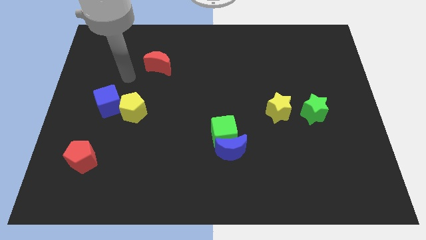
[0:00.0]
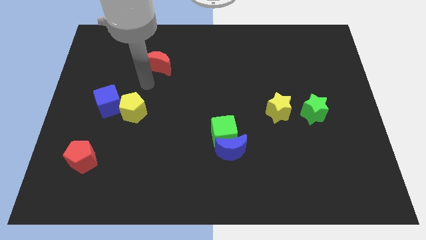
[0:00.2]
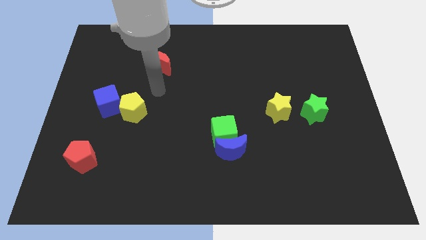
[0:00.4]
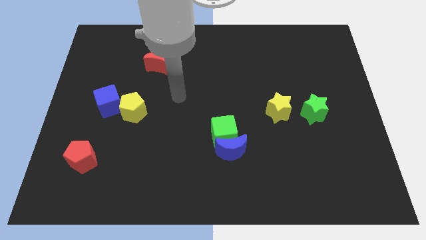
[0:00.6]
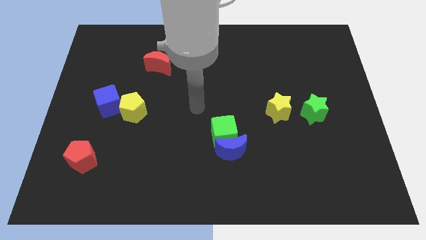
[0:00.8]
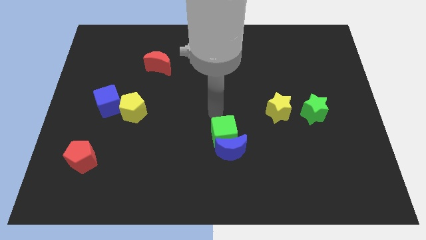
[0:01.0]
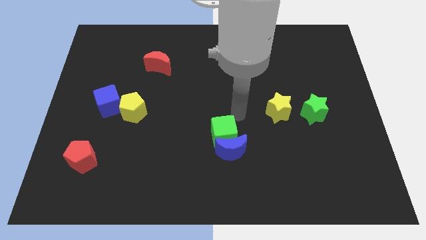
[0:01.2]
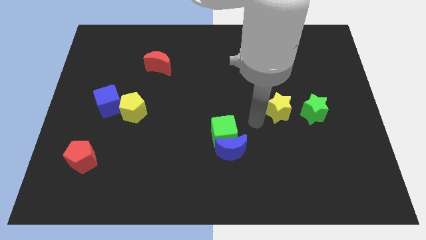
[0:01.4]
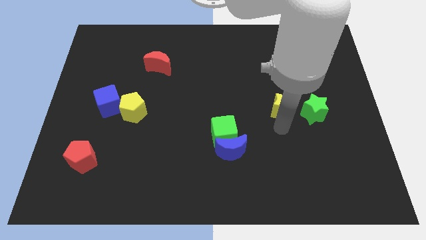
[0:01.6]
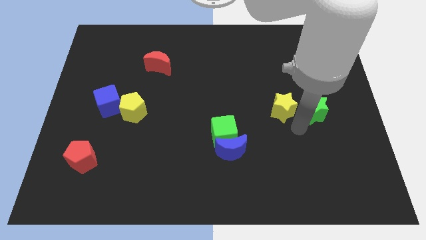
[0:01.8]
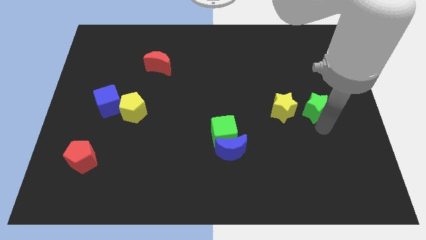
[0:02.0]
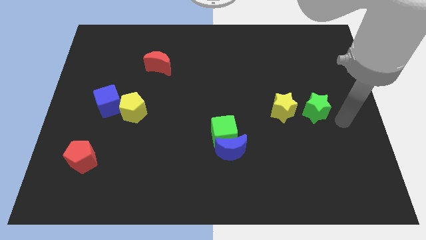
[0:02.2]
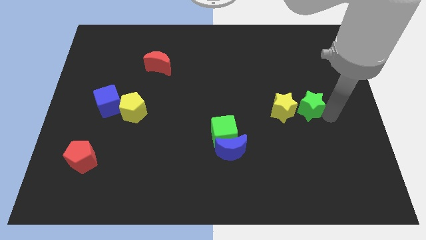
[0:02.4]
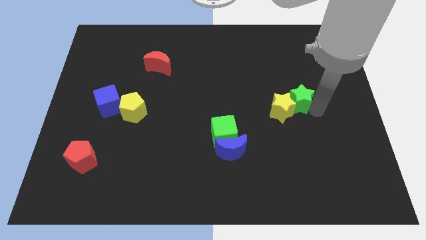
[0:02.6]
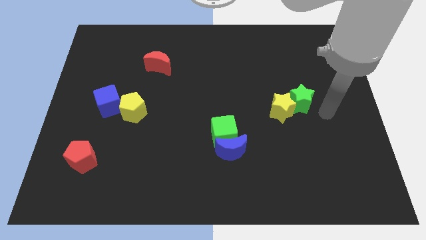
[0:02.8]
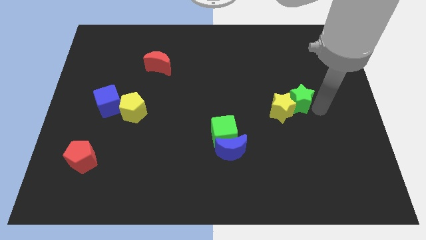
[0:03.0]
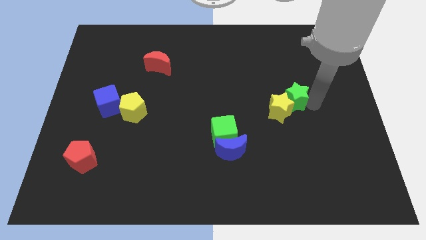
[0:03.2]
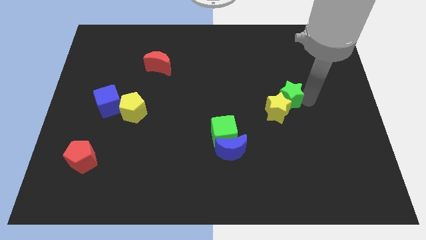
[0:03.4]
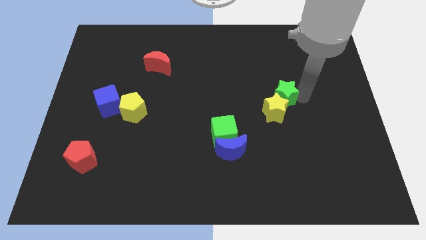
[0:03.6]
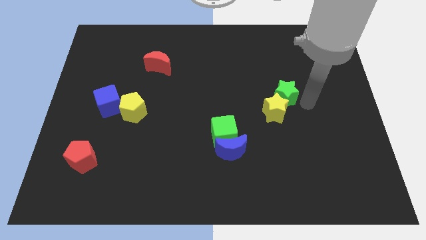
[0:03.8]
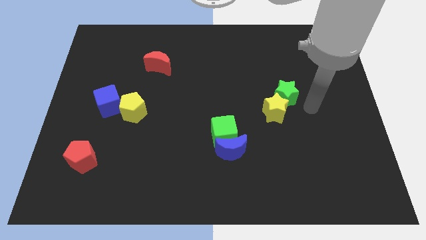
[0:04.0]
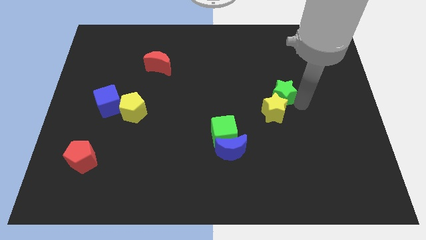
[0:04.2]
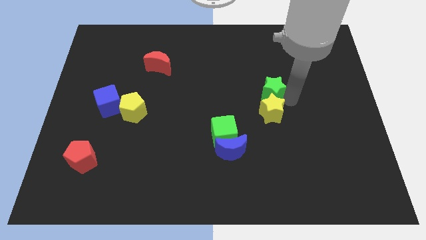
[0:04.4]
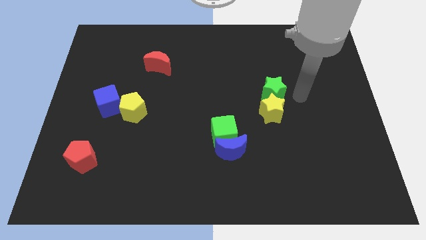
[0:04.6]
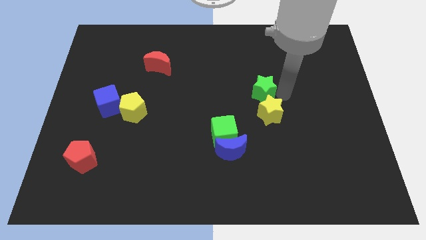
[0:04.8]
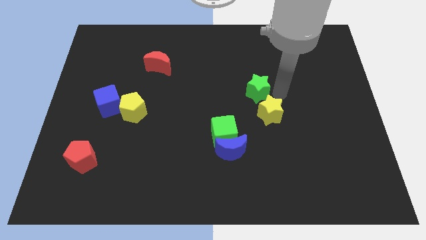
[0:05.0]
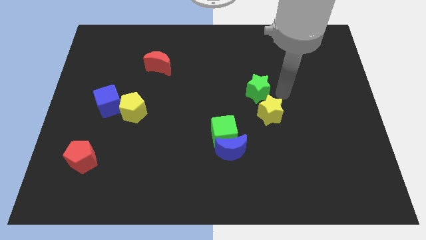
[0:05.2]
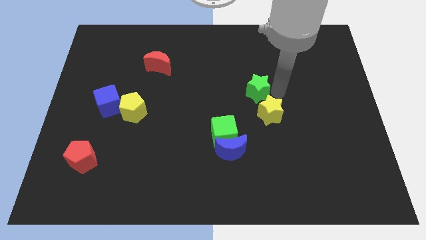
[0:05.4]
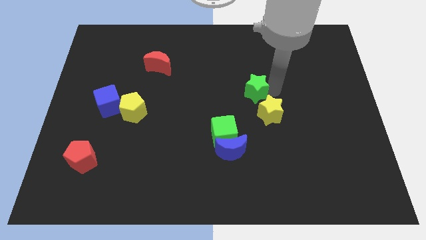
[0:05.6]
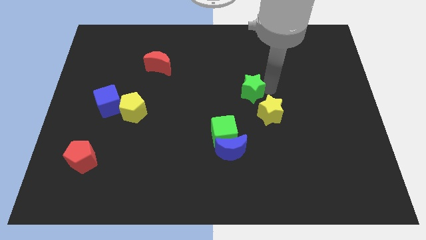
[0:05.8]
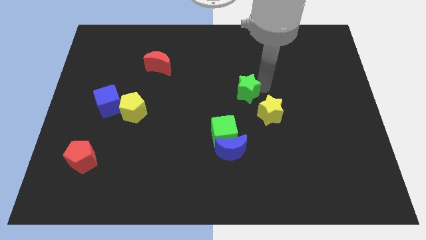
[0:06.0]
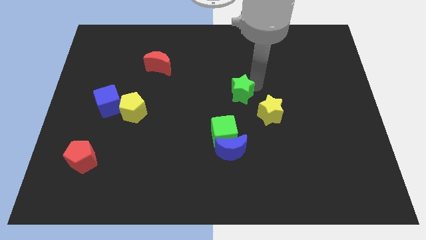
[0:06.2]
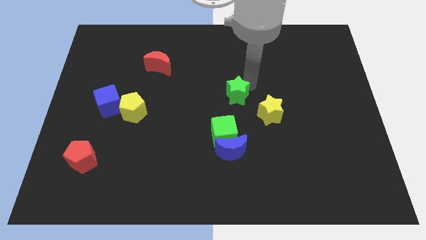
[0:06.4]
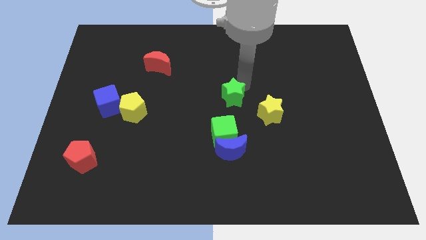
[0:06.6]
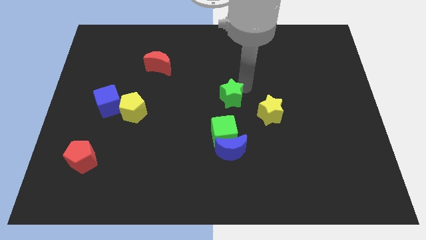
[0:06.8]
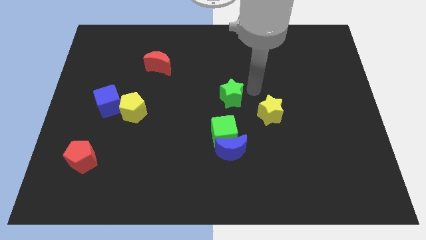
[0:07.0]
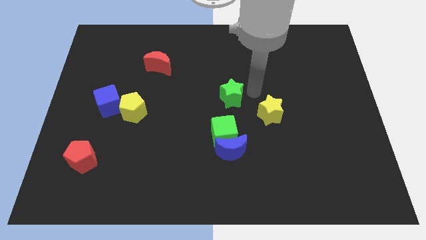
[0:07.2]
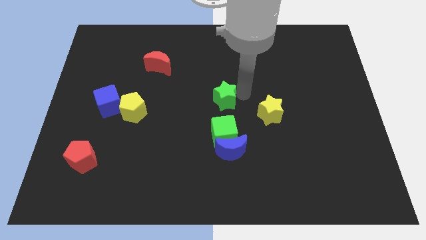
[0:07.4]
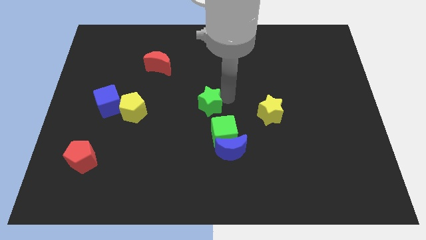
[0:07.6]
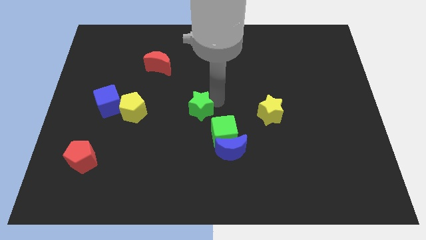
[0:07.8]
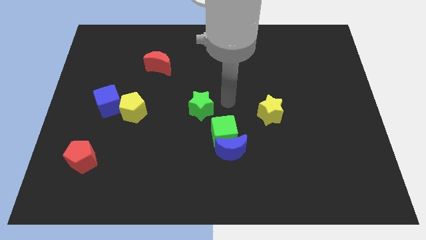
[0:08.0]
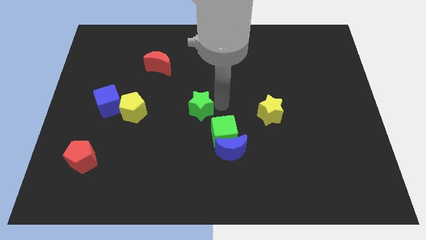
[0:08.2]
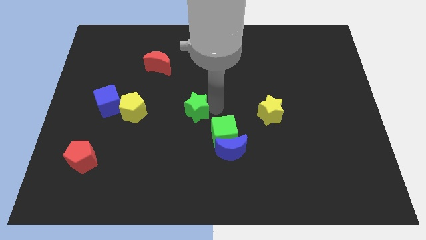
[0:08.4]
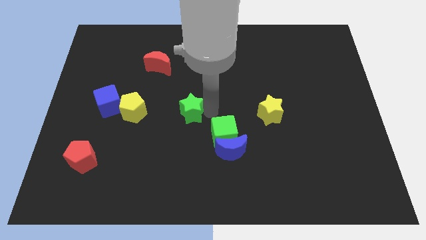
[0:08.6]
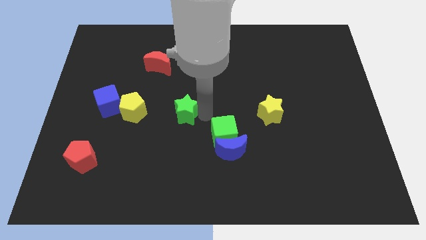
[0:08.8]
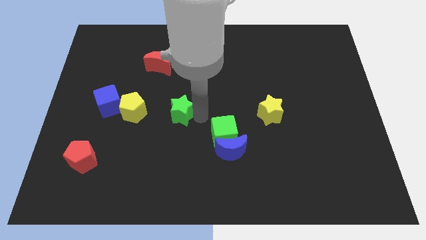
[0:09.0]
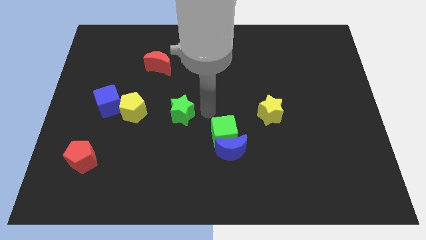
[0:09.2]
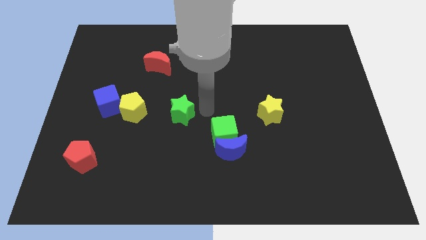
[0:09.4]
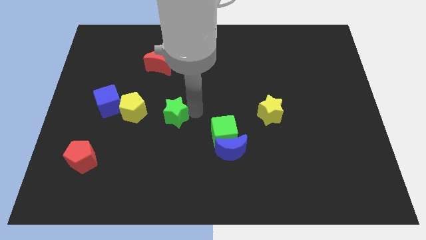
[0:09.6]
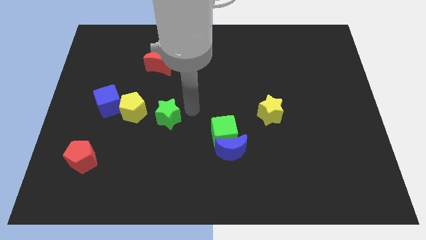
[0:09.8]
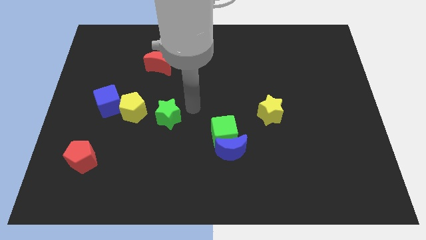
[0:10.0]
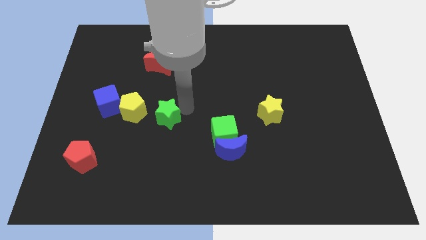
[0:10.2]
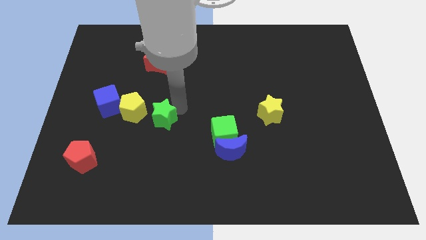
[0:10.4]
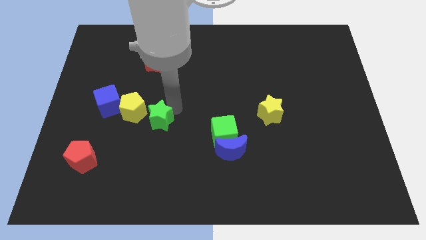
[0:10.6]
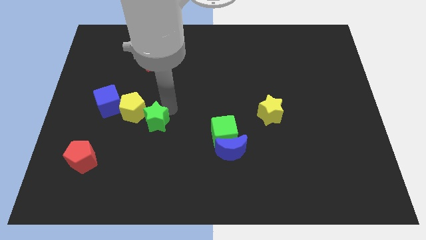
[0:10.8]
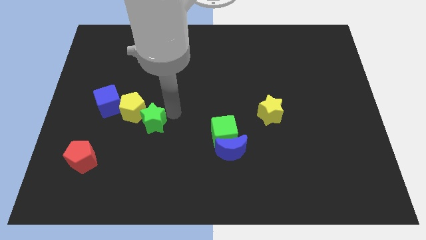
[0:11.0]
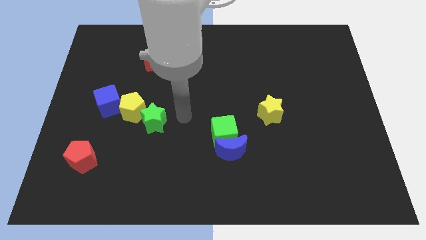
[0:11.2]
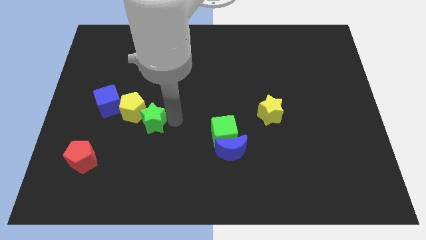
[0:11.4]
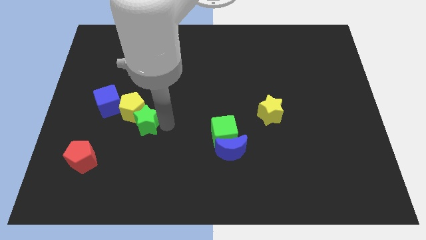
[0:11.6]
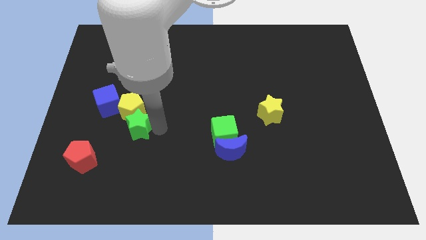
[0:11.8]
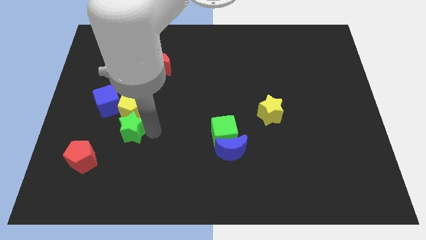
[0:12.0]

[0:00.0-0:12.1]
slide the green star to the bottom left of the yellow pentagon
